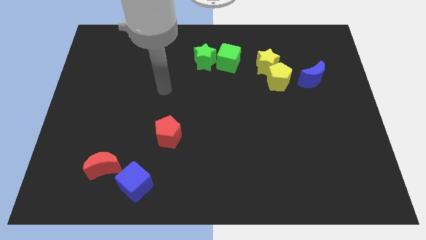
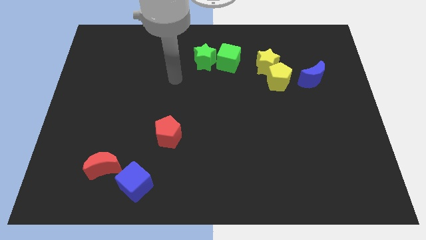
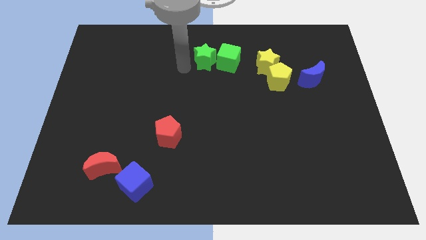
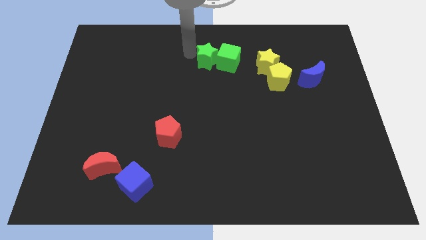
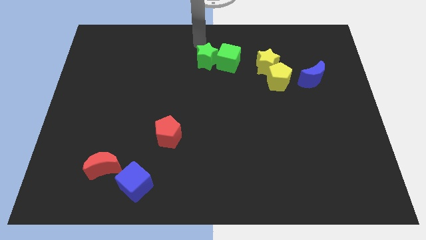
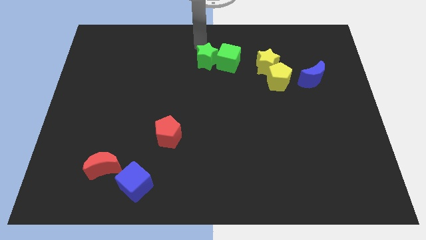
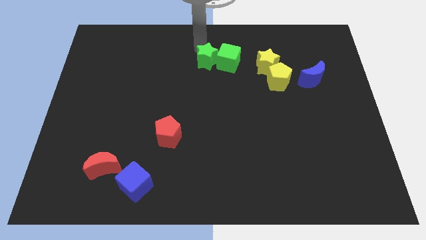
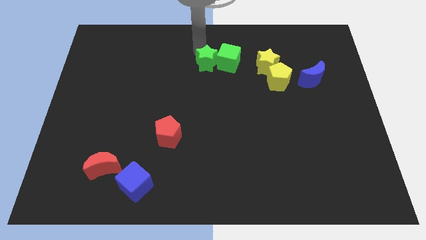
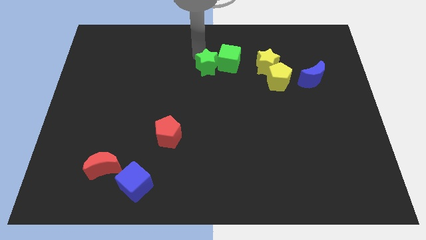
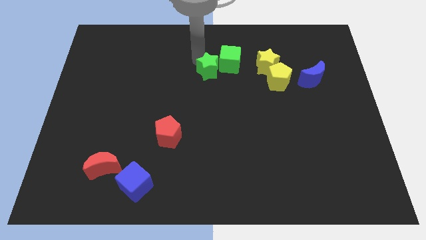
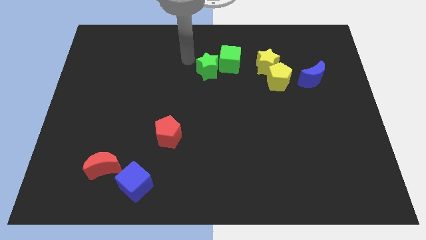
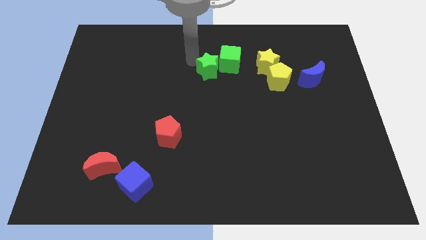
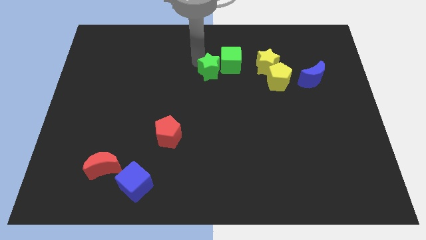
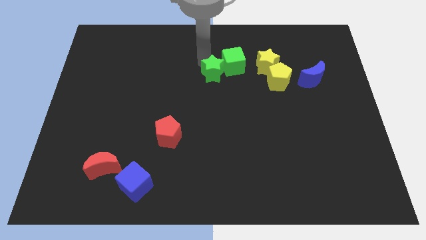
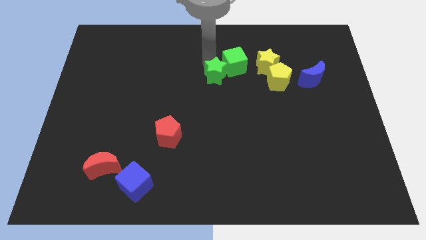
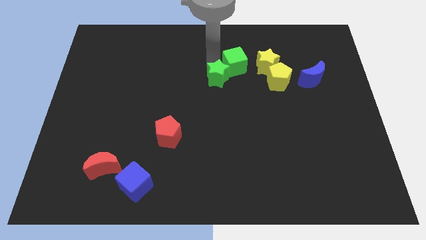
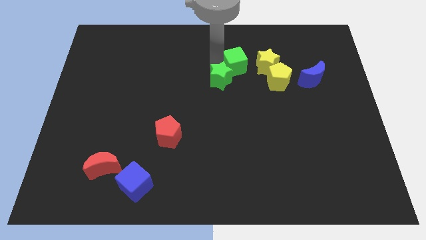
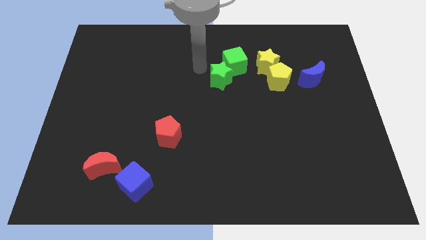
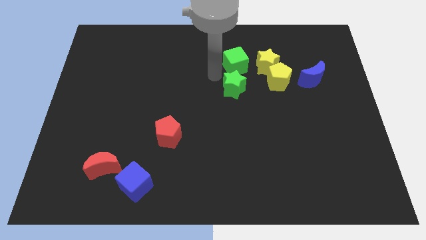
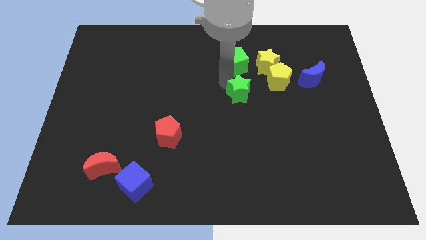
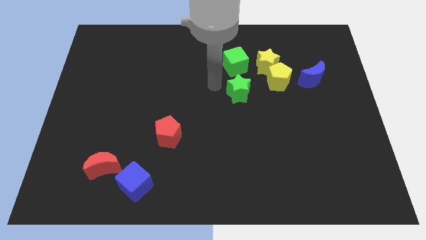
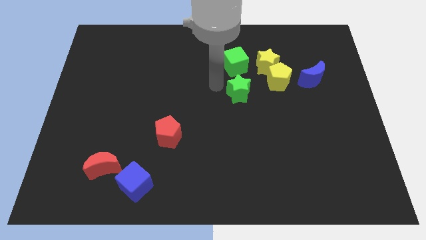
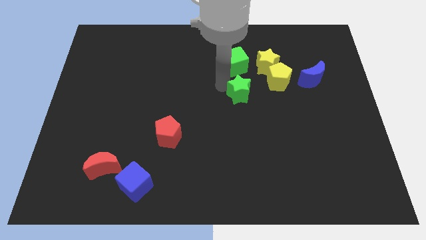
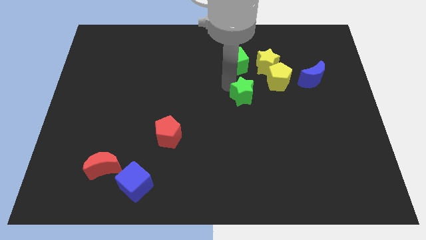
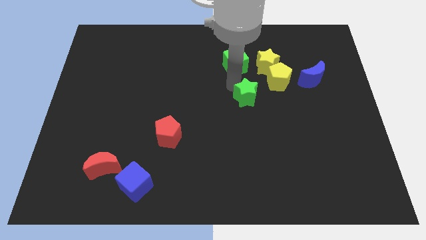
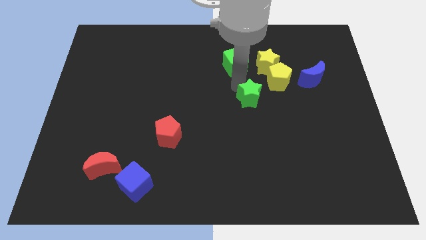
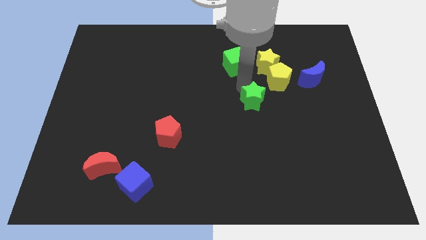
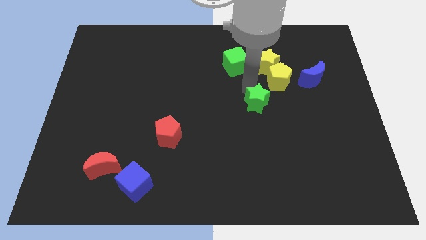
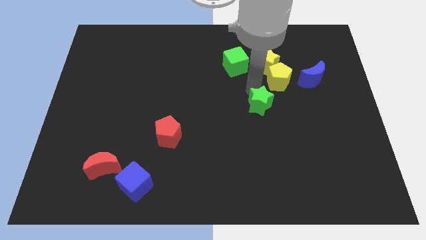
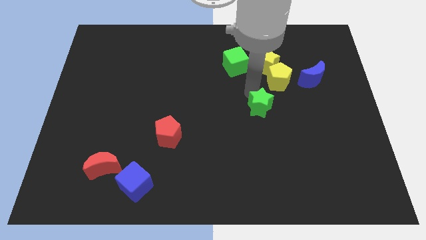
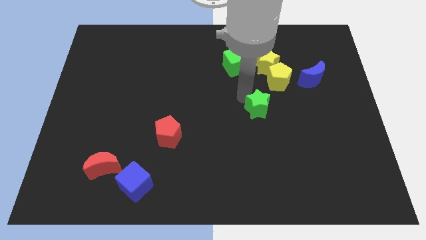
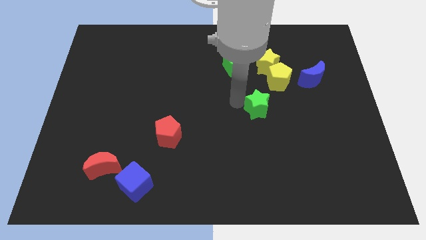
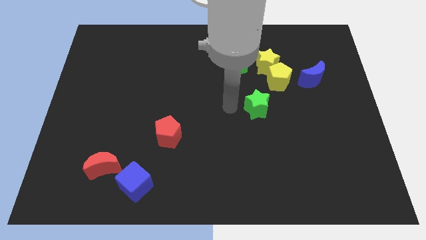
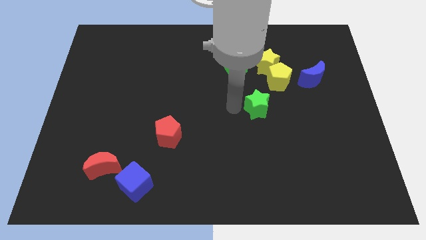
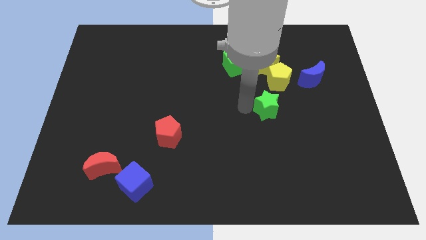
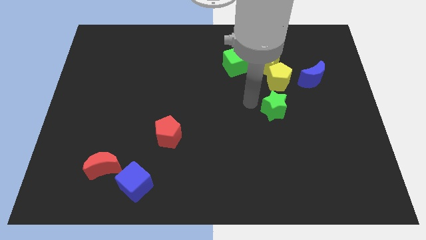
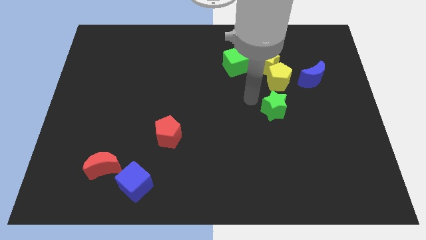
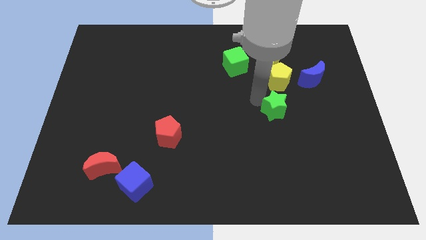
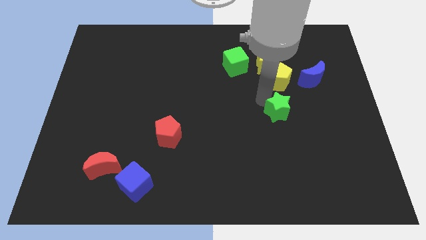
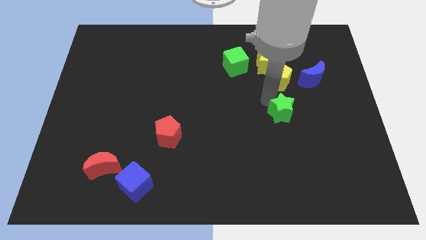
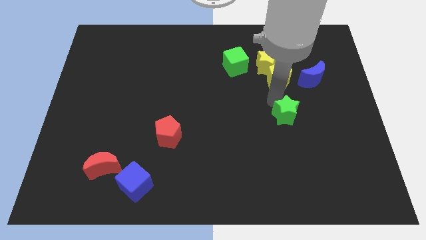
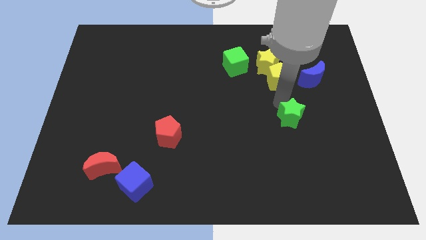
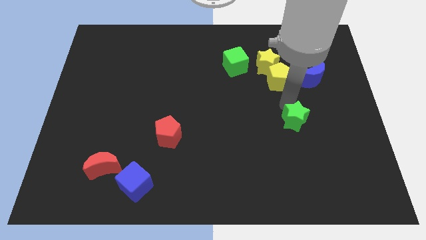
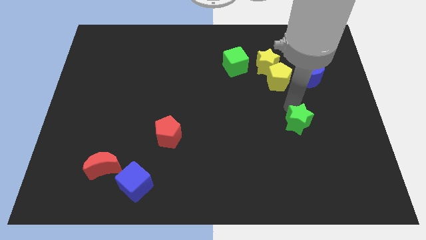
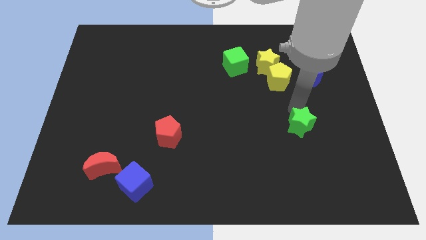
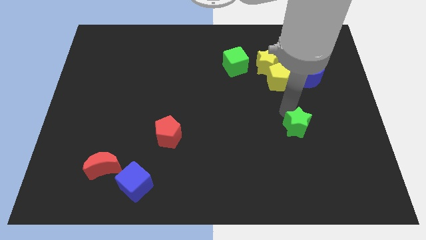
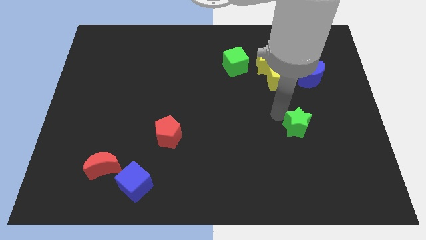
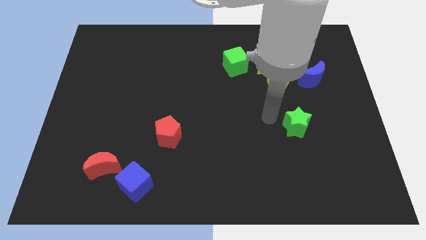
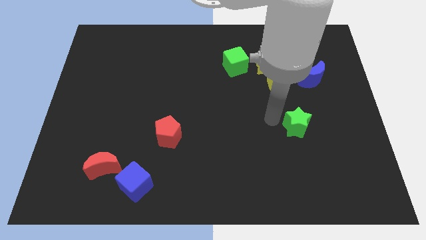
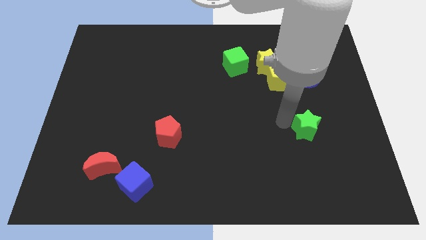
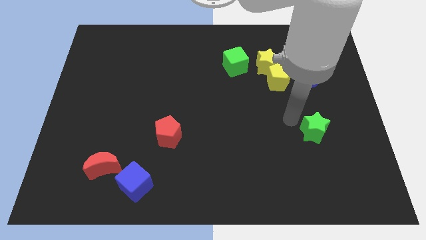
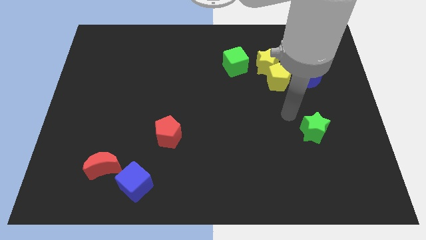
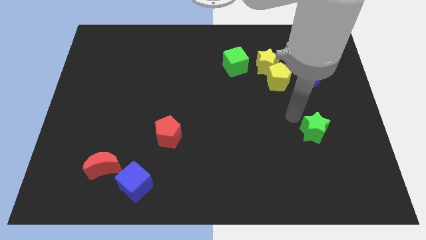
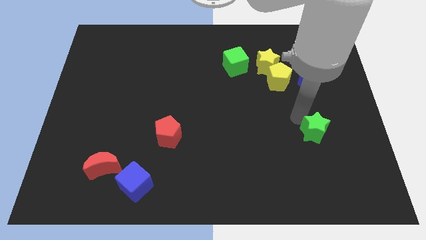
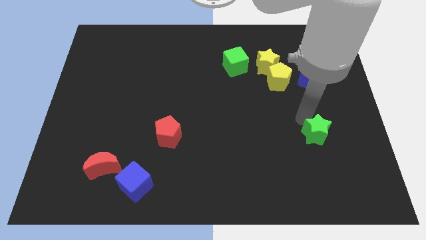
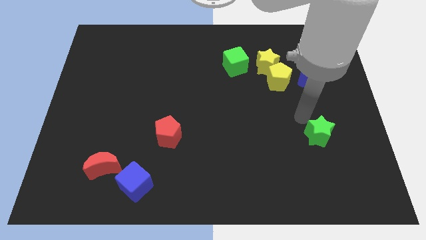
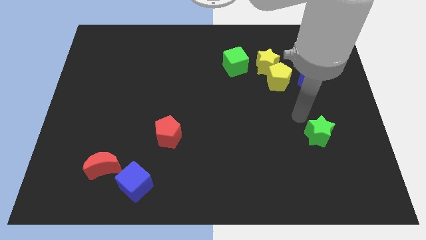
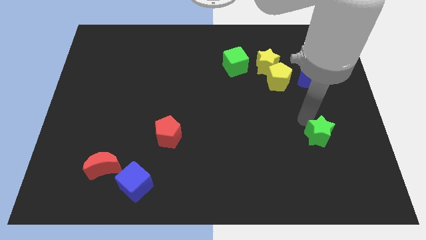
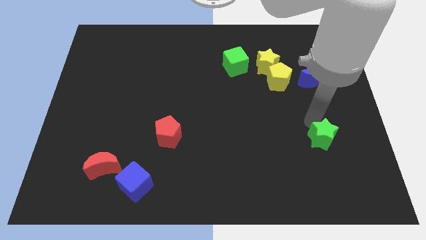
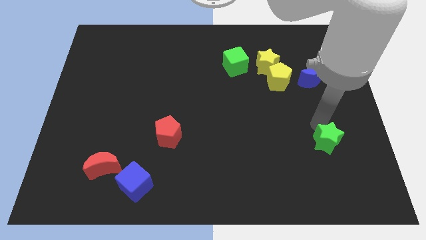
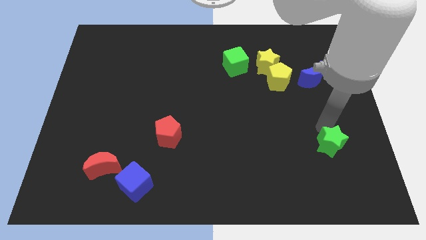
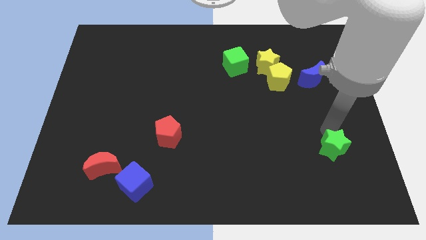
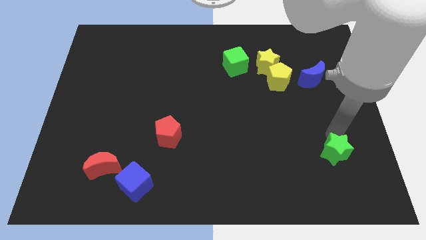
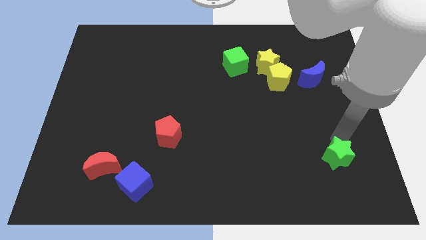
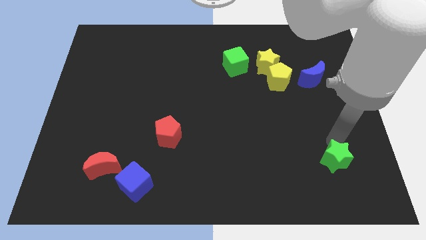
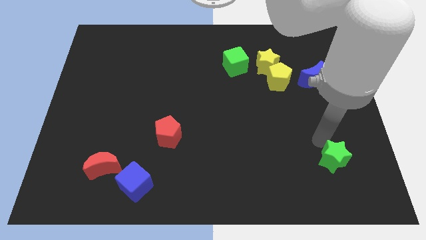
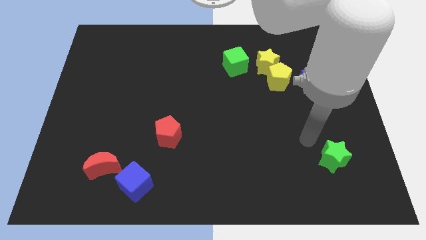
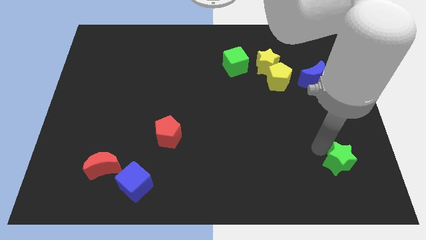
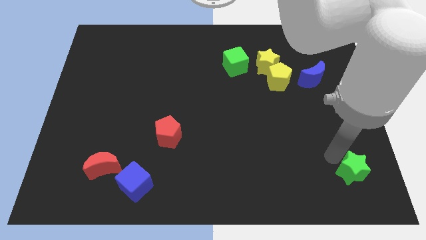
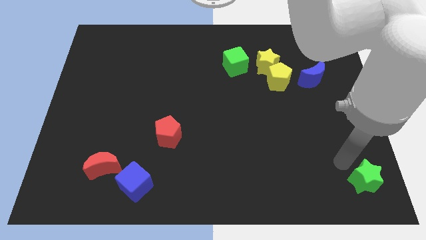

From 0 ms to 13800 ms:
push the green star to the lower right corner
